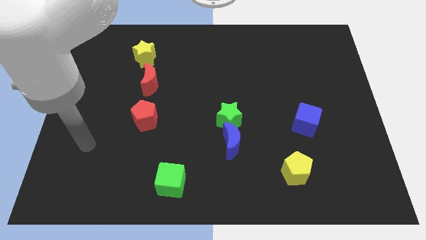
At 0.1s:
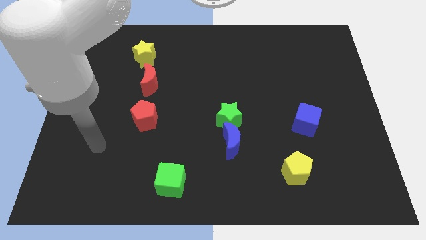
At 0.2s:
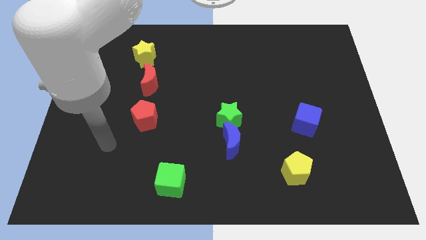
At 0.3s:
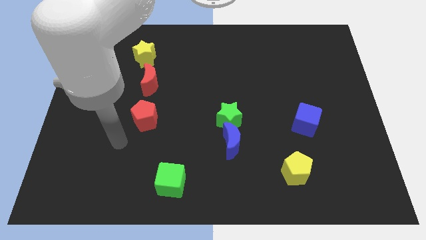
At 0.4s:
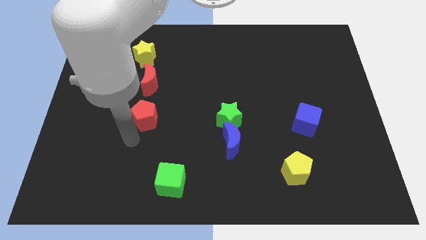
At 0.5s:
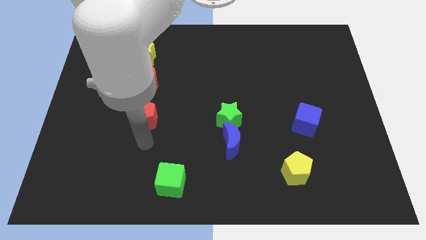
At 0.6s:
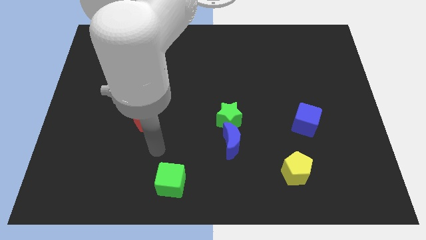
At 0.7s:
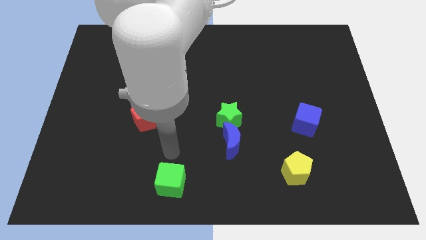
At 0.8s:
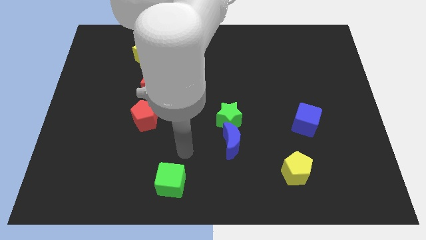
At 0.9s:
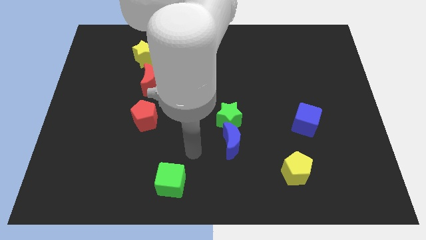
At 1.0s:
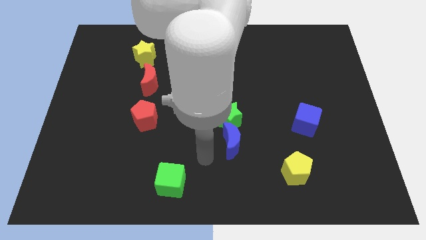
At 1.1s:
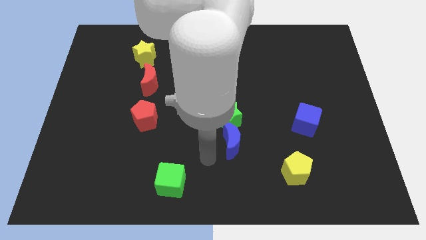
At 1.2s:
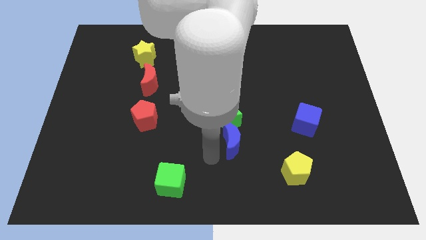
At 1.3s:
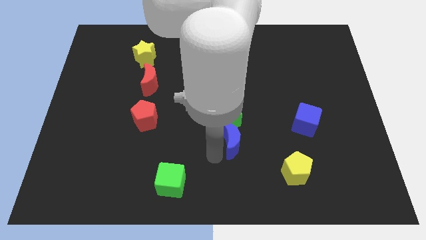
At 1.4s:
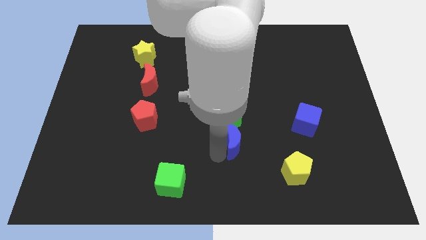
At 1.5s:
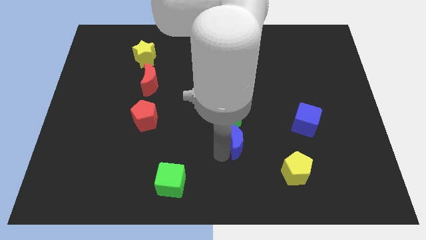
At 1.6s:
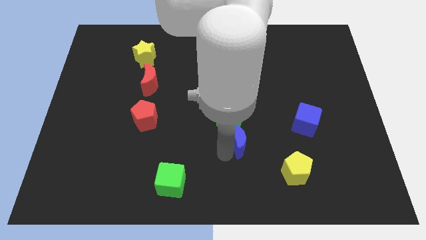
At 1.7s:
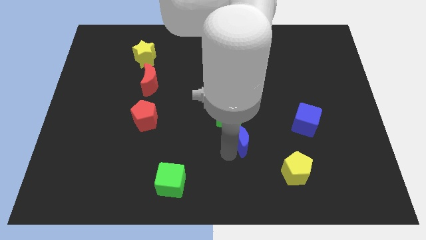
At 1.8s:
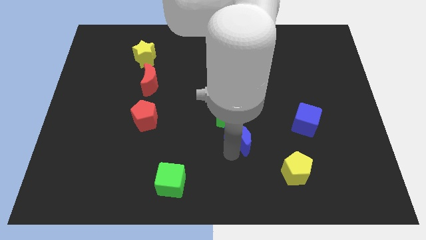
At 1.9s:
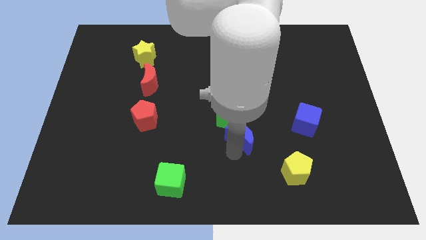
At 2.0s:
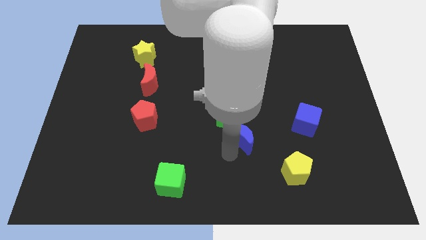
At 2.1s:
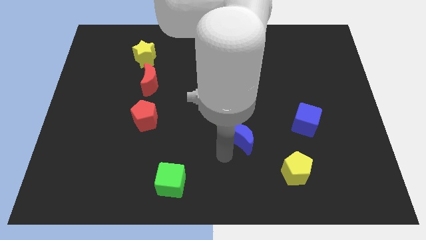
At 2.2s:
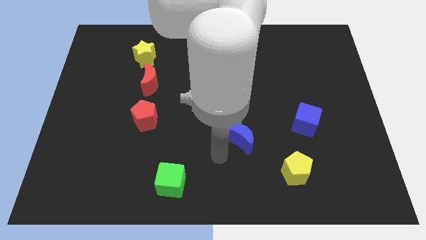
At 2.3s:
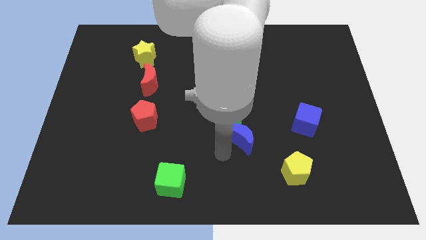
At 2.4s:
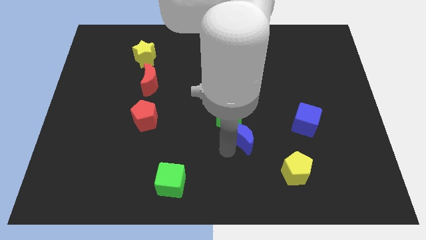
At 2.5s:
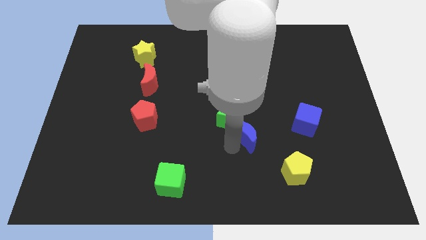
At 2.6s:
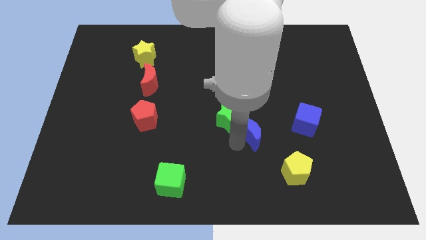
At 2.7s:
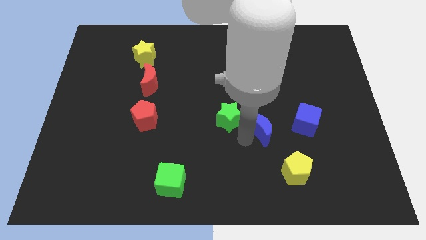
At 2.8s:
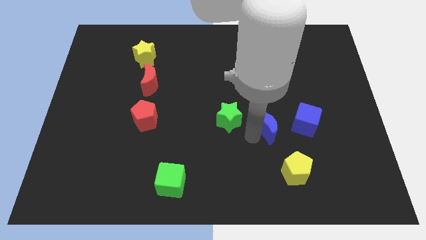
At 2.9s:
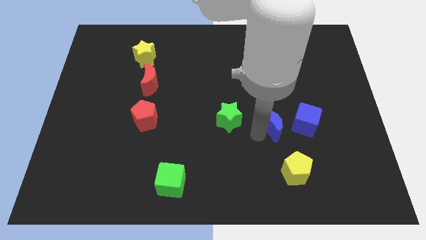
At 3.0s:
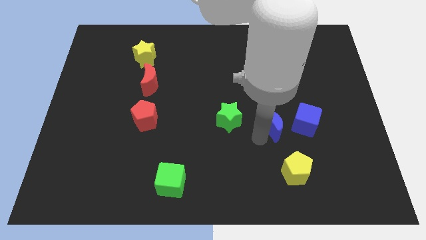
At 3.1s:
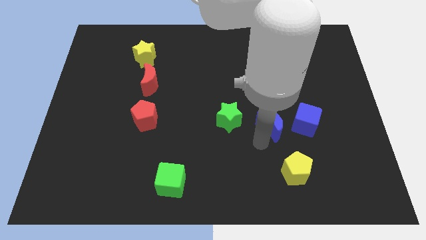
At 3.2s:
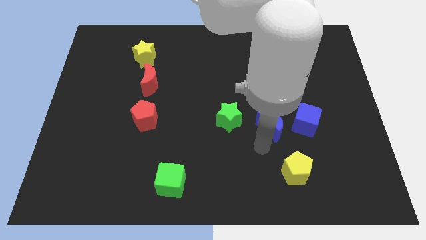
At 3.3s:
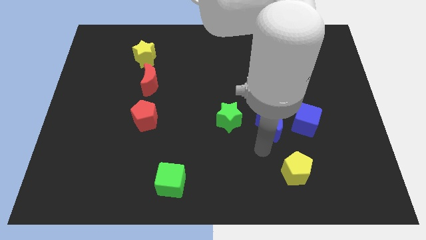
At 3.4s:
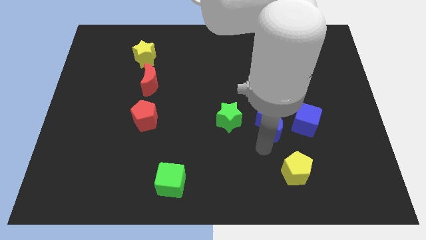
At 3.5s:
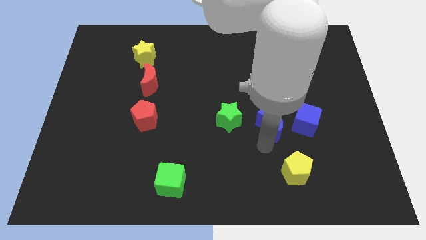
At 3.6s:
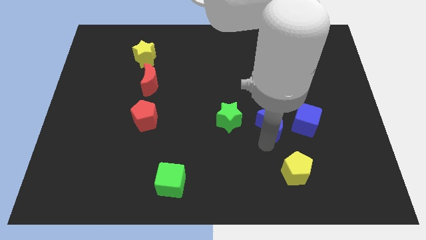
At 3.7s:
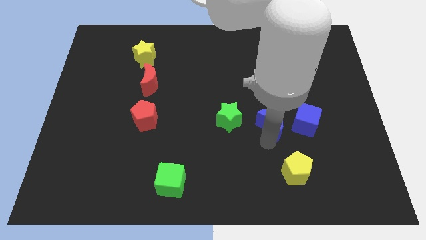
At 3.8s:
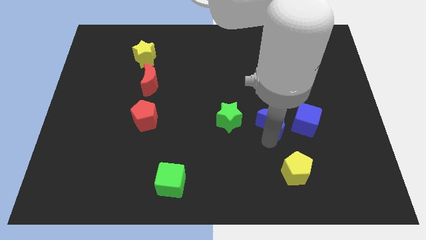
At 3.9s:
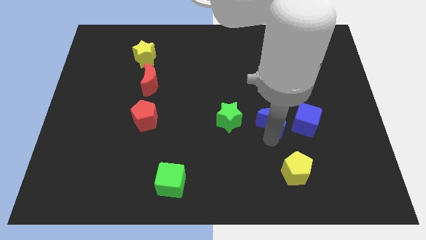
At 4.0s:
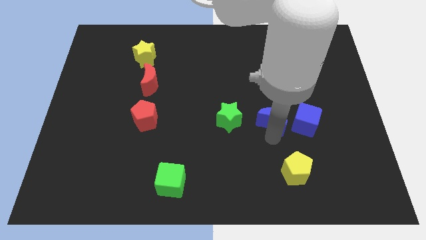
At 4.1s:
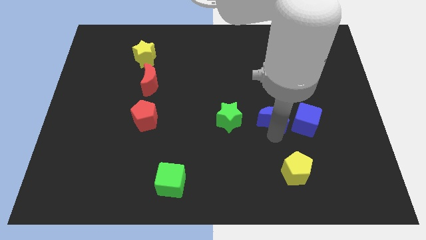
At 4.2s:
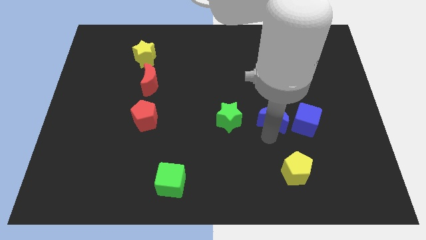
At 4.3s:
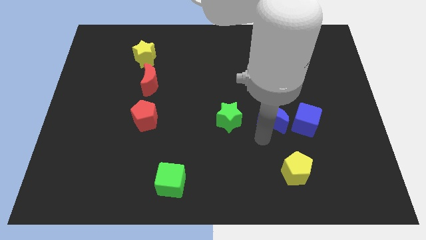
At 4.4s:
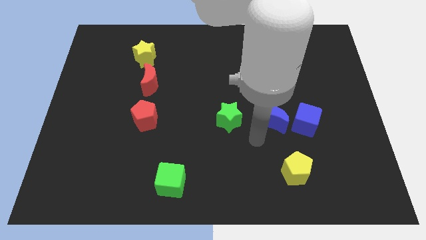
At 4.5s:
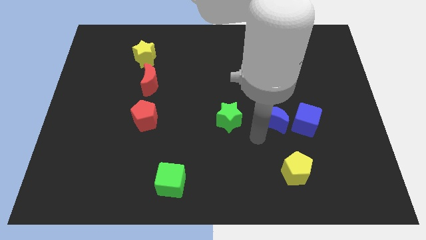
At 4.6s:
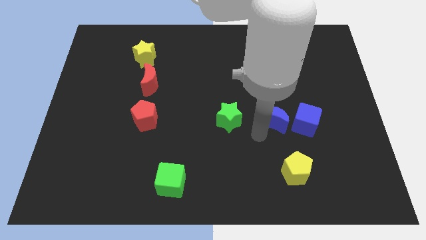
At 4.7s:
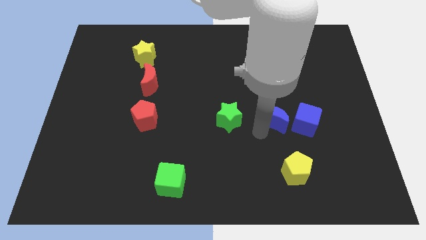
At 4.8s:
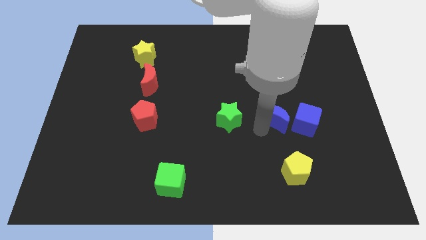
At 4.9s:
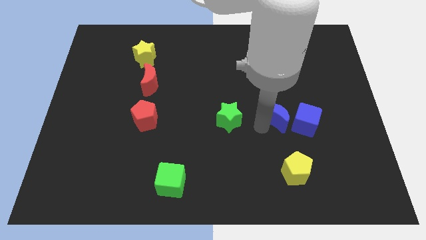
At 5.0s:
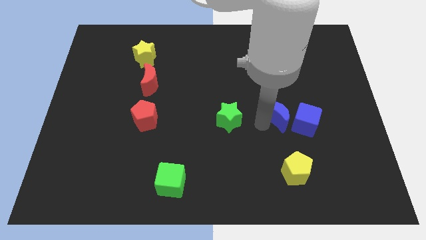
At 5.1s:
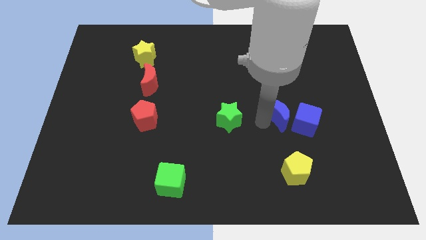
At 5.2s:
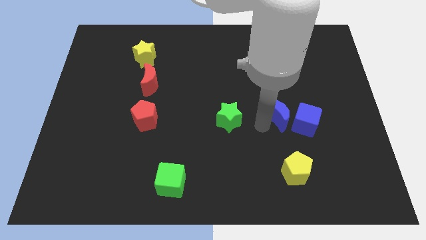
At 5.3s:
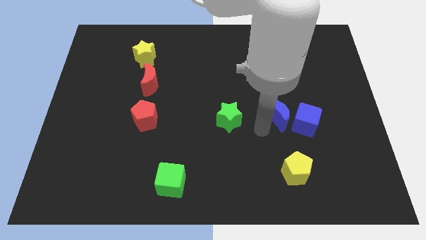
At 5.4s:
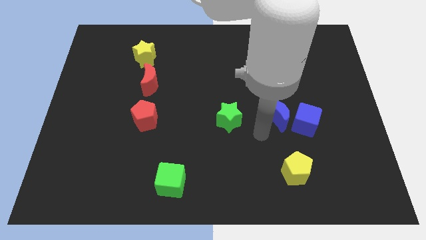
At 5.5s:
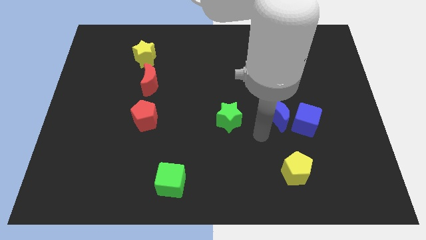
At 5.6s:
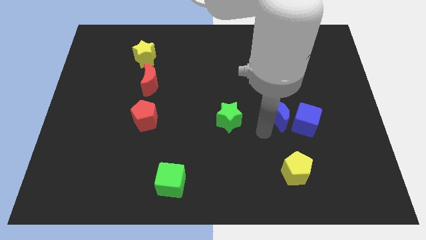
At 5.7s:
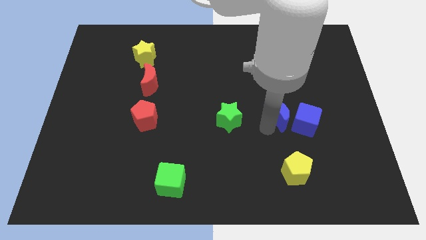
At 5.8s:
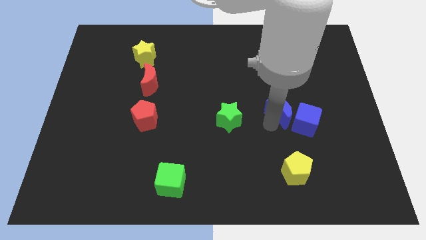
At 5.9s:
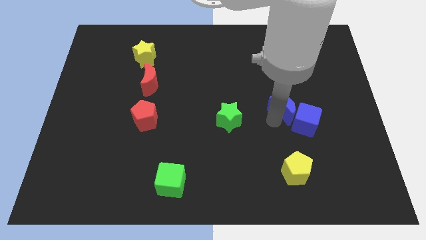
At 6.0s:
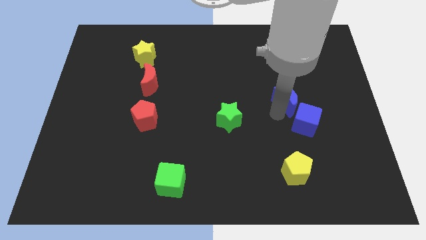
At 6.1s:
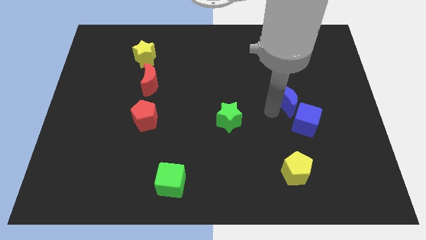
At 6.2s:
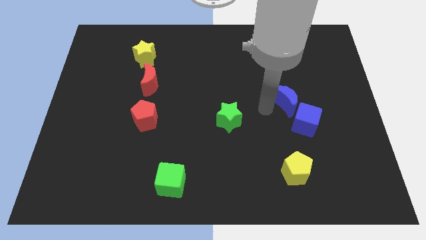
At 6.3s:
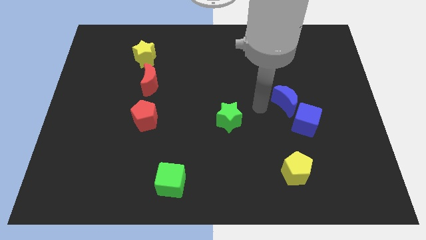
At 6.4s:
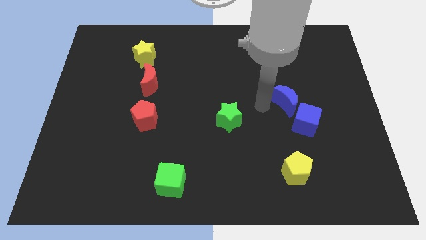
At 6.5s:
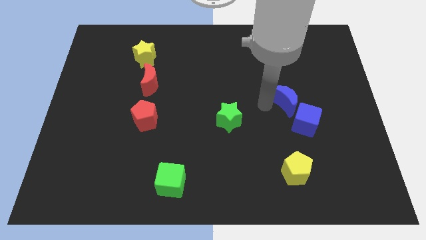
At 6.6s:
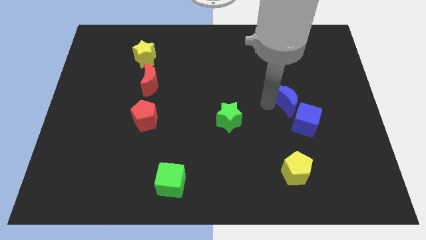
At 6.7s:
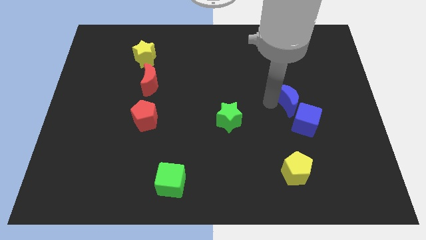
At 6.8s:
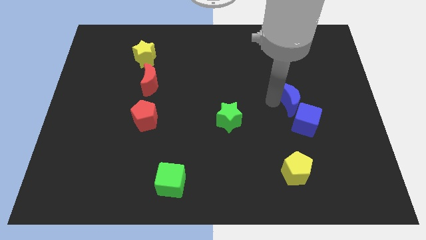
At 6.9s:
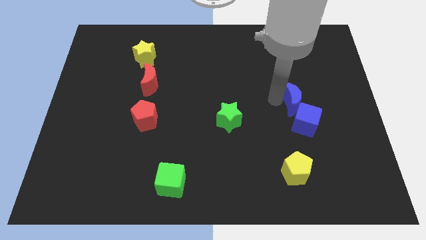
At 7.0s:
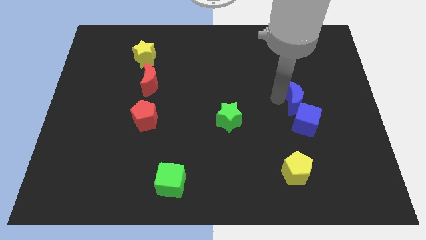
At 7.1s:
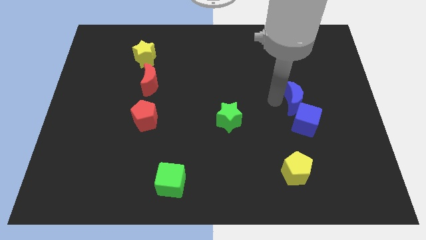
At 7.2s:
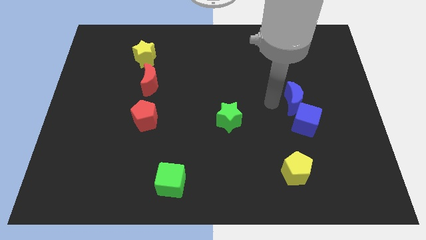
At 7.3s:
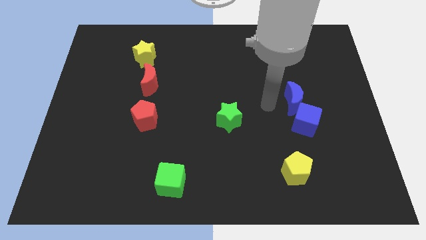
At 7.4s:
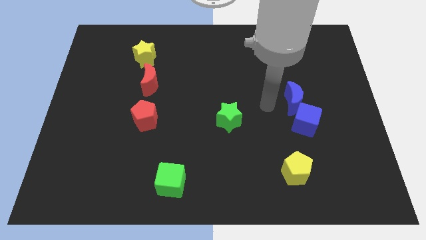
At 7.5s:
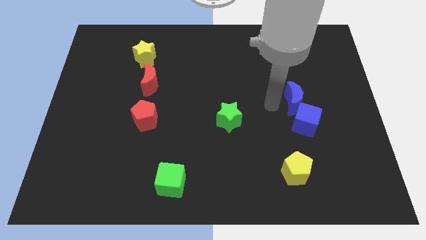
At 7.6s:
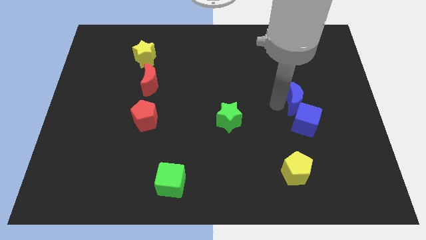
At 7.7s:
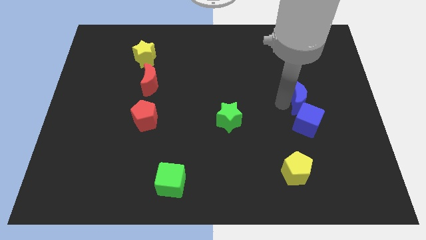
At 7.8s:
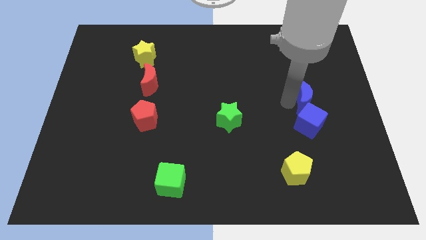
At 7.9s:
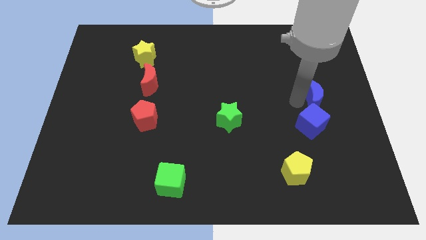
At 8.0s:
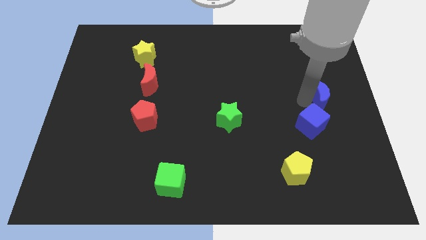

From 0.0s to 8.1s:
put the blue moon to the right side
